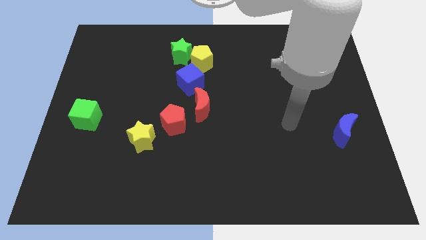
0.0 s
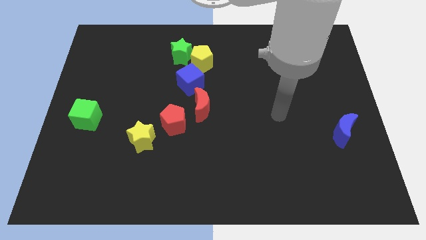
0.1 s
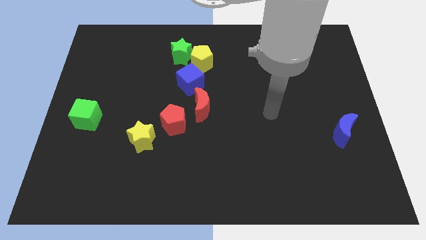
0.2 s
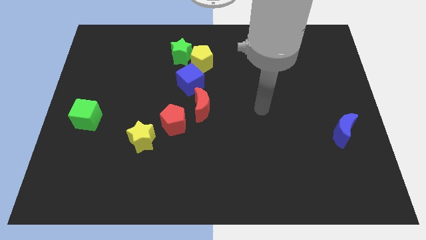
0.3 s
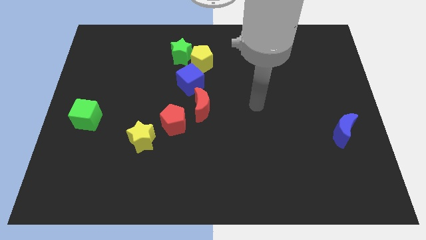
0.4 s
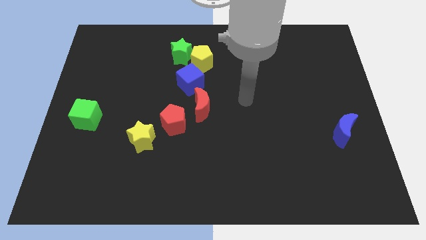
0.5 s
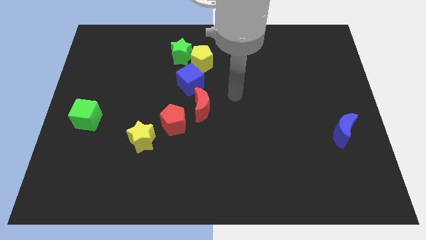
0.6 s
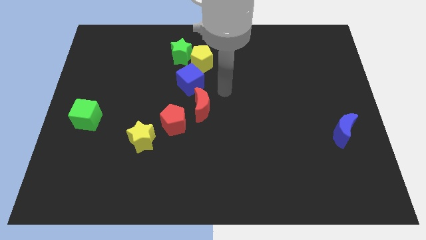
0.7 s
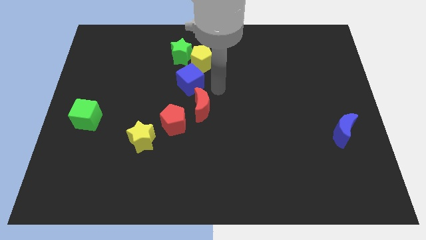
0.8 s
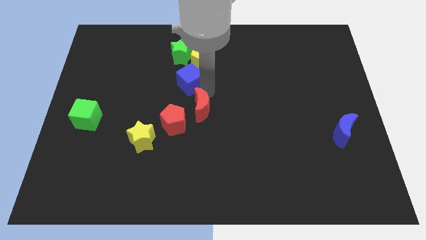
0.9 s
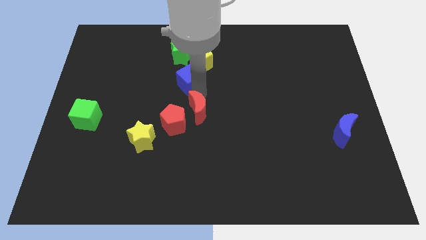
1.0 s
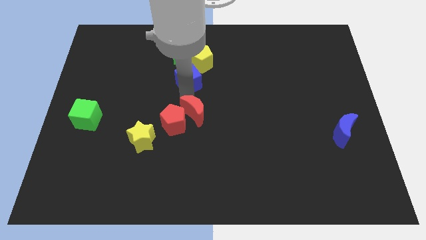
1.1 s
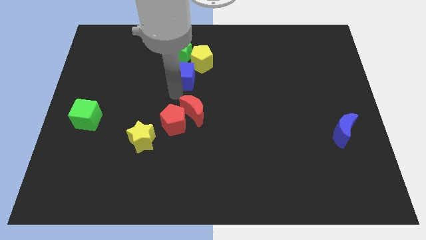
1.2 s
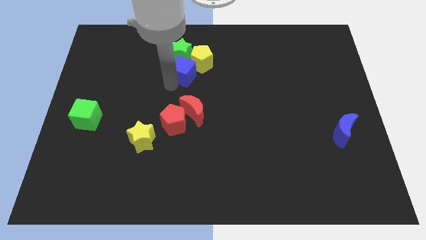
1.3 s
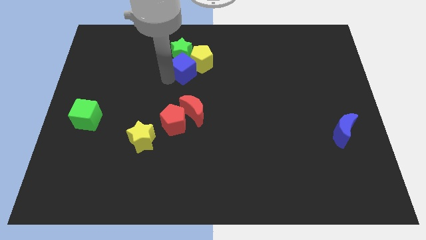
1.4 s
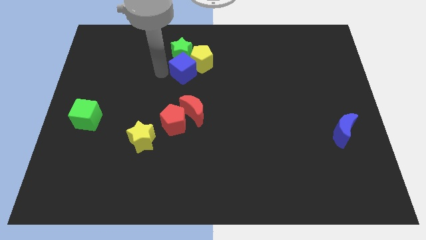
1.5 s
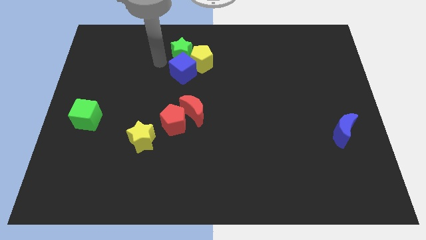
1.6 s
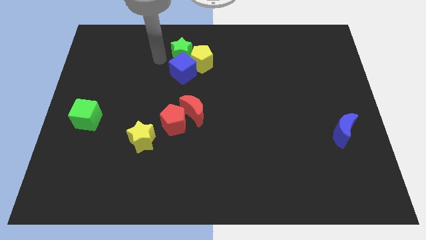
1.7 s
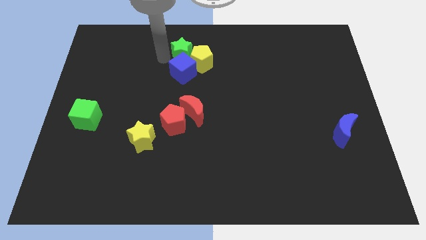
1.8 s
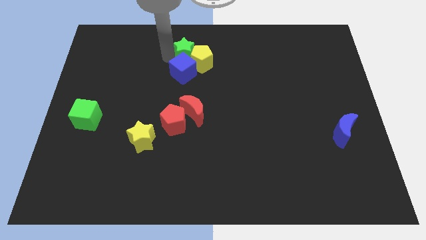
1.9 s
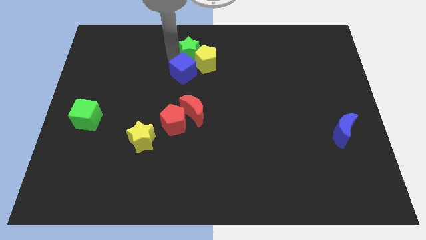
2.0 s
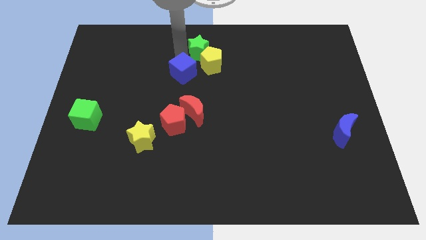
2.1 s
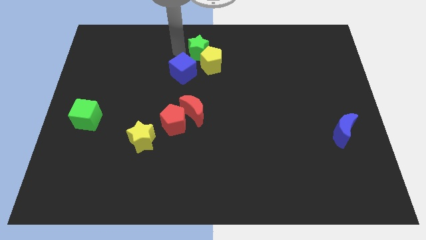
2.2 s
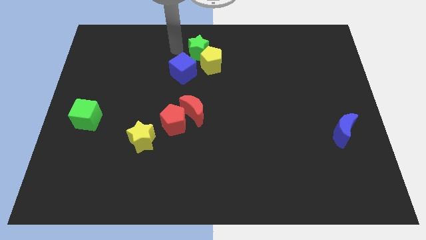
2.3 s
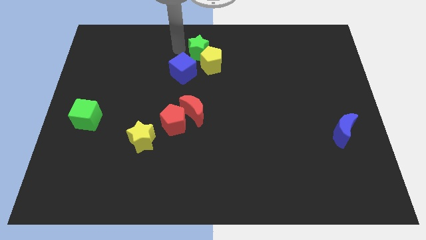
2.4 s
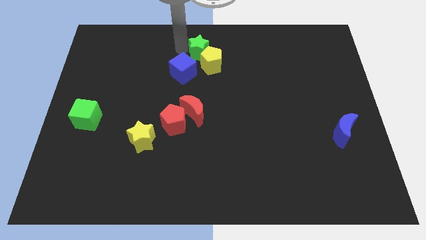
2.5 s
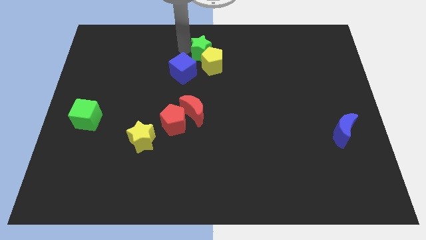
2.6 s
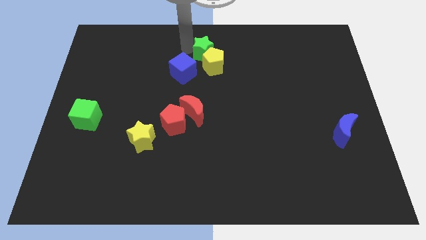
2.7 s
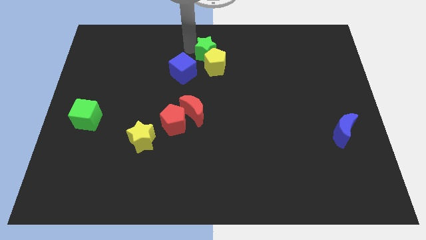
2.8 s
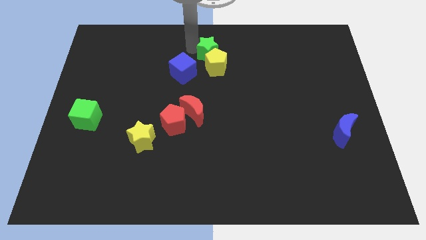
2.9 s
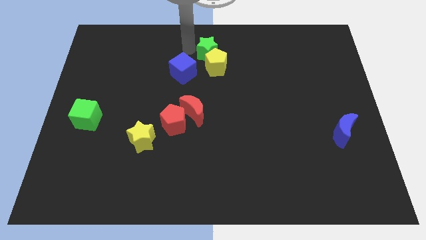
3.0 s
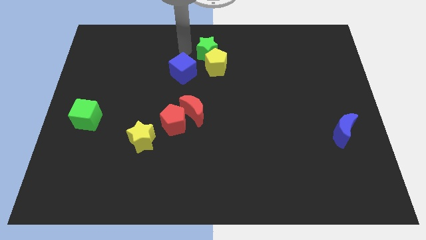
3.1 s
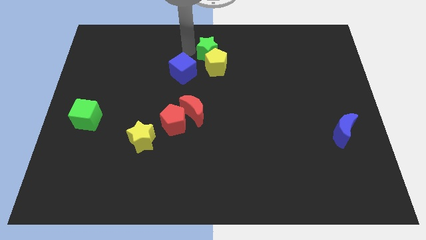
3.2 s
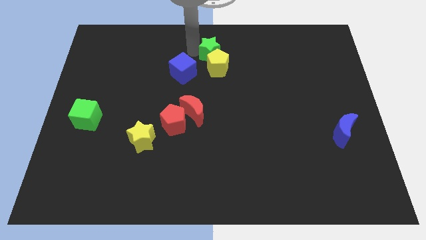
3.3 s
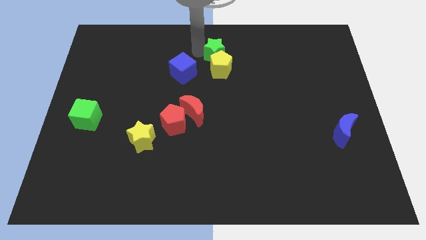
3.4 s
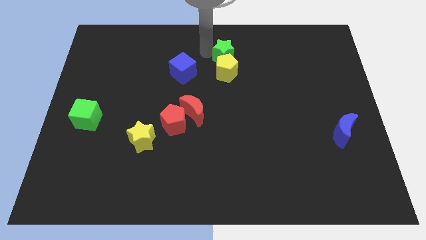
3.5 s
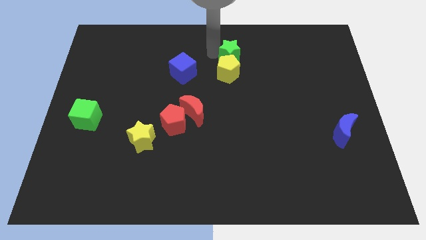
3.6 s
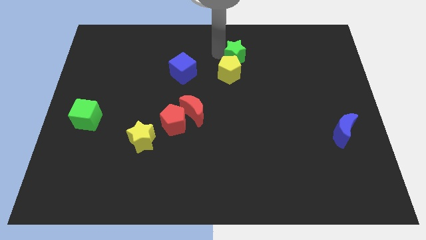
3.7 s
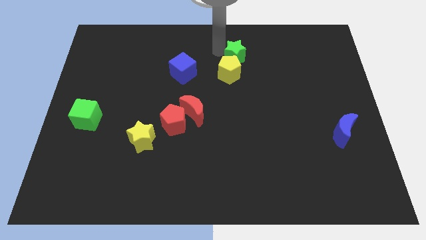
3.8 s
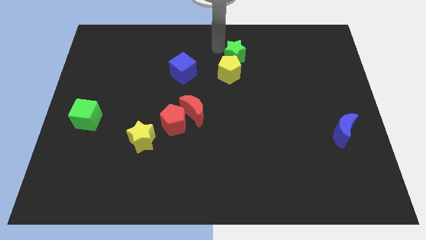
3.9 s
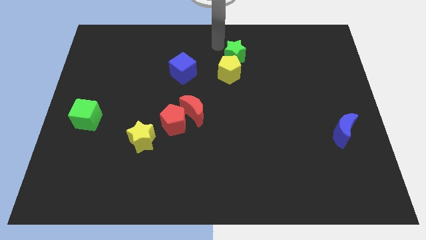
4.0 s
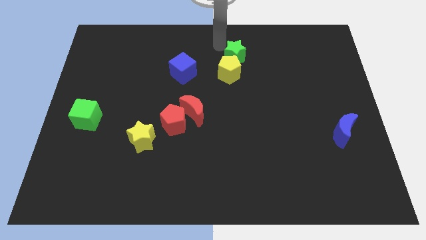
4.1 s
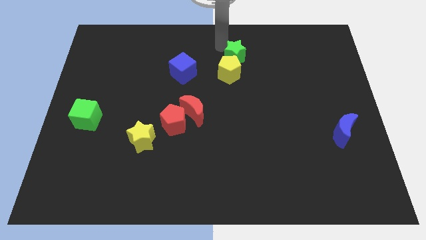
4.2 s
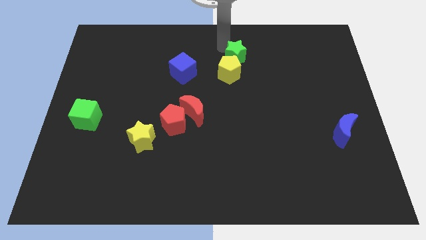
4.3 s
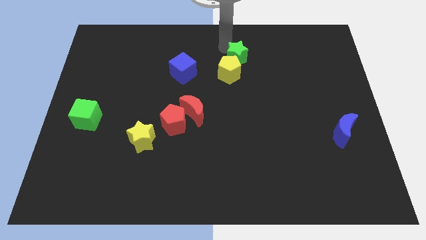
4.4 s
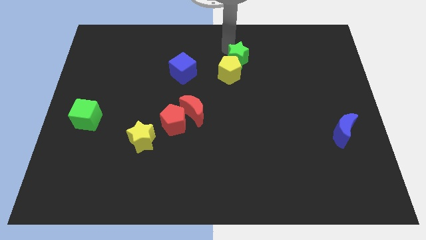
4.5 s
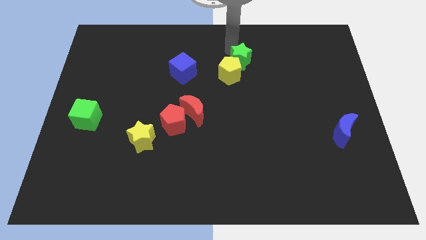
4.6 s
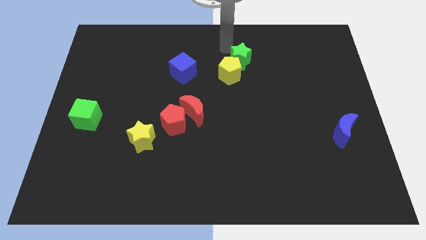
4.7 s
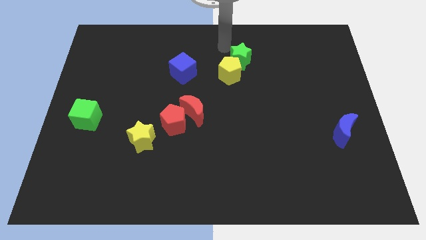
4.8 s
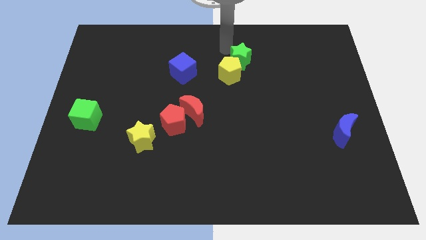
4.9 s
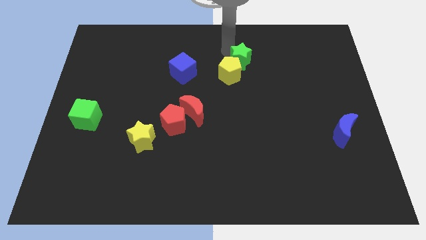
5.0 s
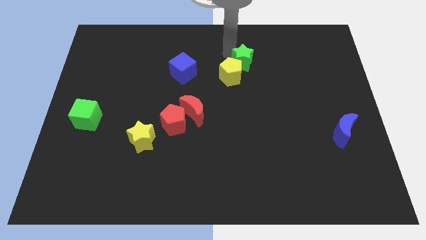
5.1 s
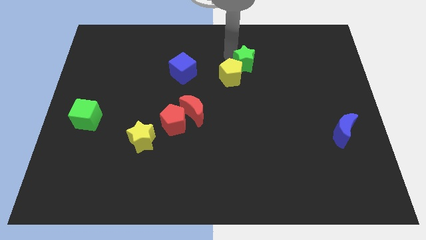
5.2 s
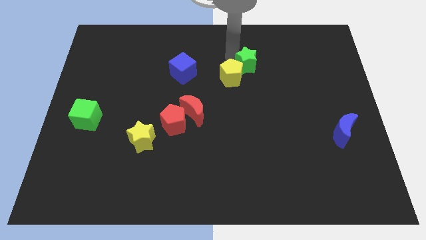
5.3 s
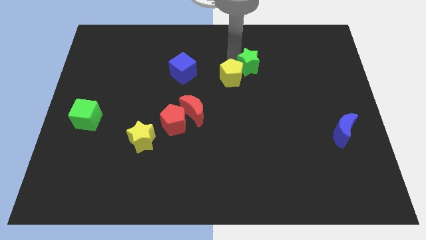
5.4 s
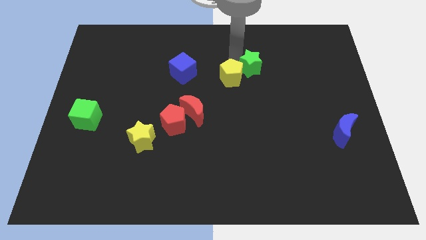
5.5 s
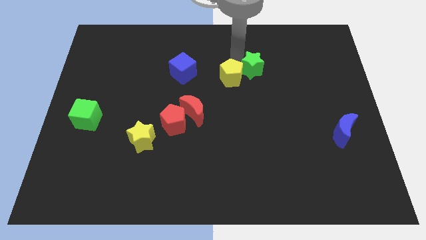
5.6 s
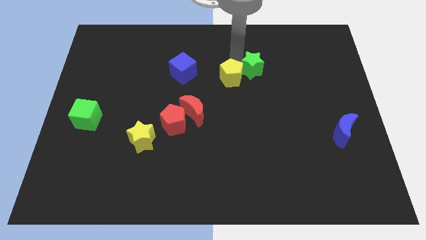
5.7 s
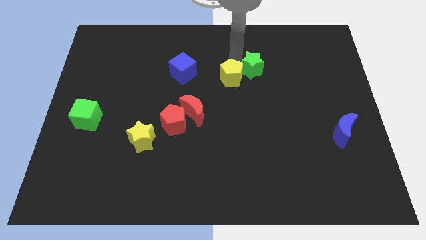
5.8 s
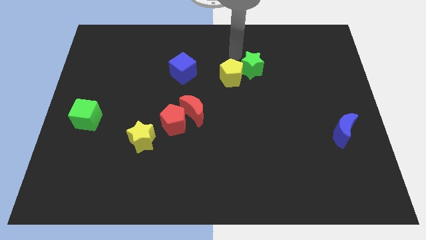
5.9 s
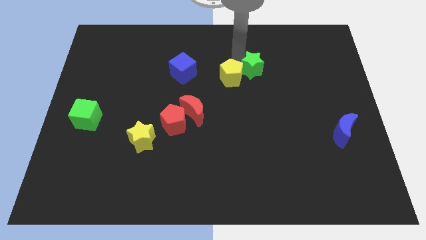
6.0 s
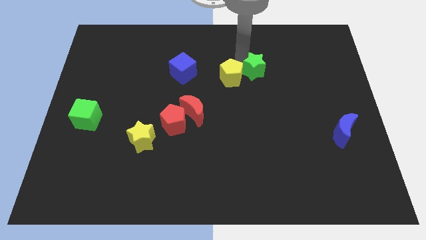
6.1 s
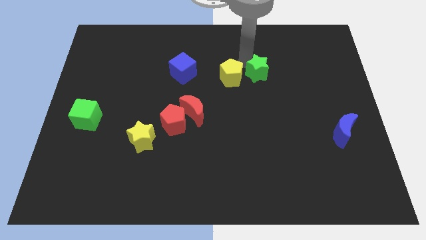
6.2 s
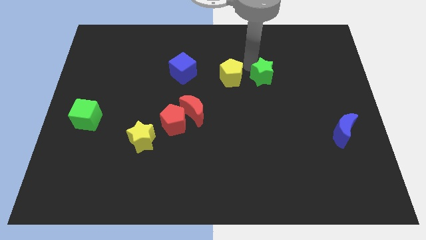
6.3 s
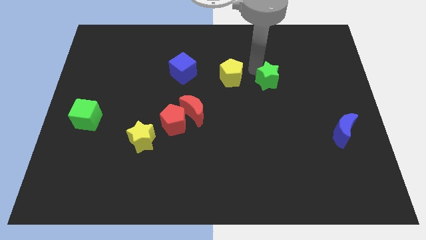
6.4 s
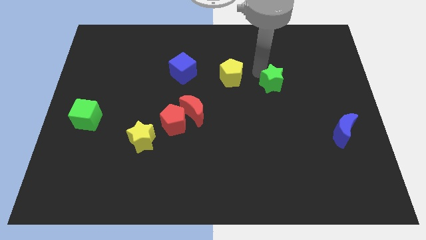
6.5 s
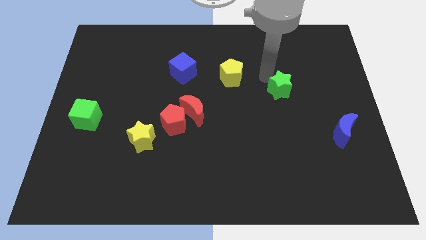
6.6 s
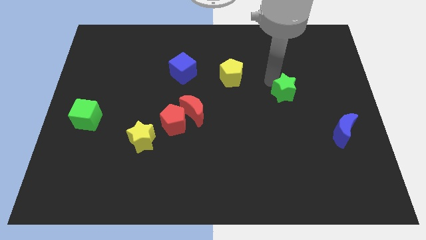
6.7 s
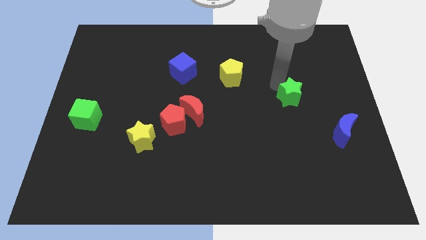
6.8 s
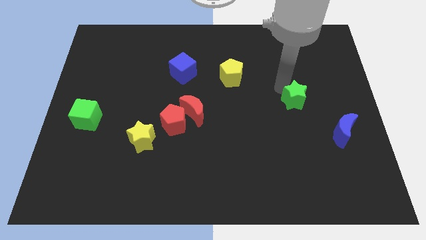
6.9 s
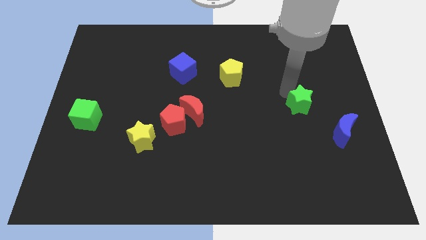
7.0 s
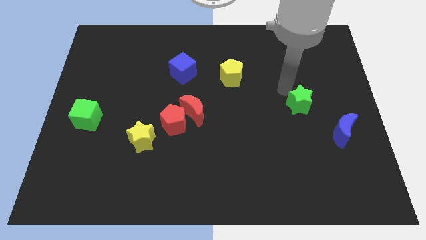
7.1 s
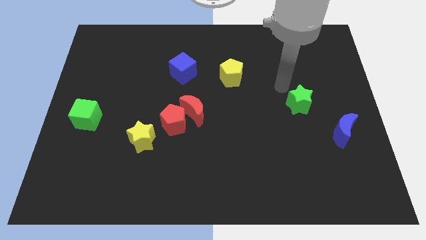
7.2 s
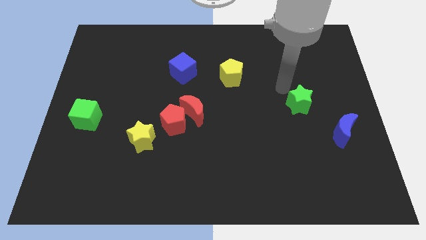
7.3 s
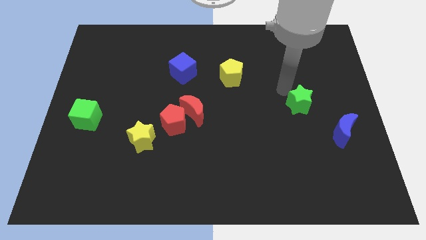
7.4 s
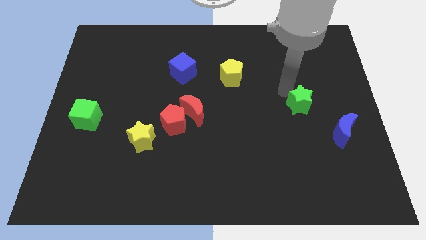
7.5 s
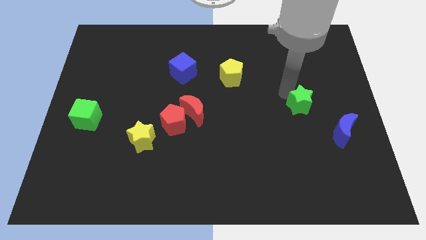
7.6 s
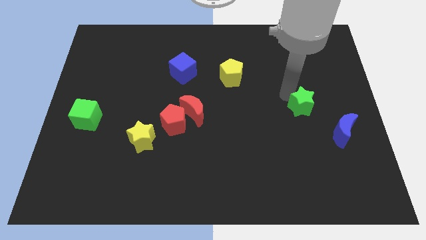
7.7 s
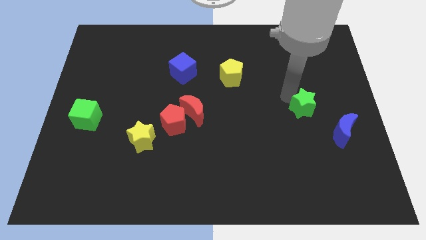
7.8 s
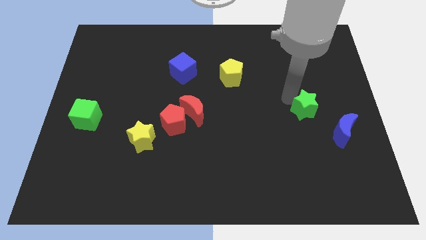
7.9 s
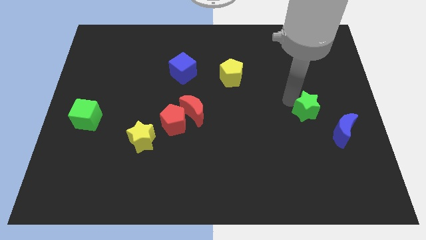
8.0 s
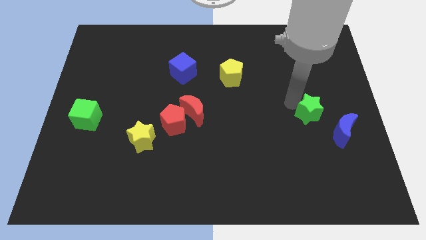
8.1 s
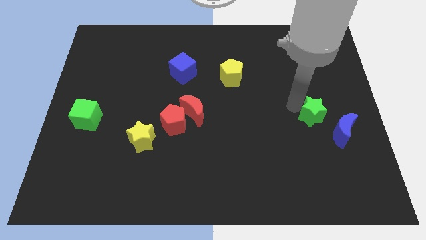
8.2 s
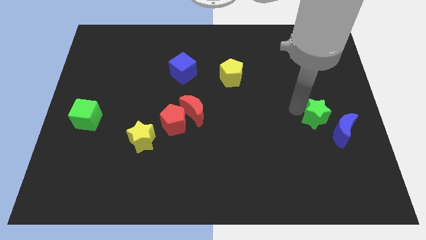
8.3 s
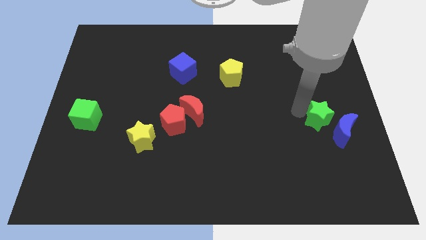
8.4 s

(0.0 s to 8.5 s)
slide the green star close to the blue moon
